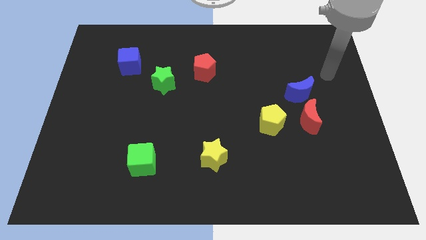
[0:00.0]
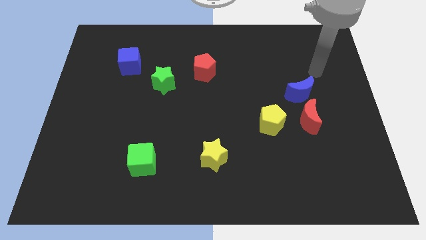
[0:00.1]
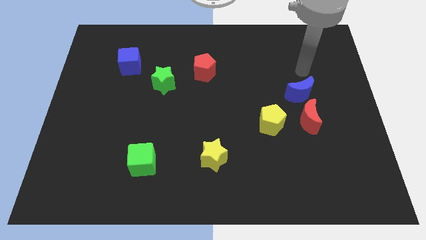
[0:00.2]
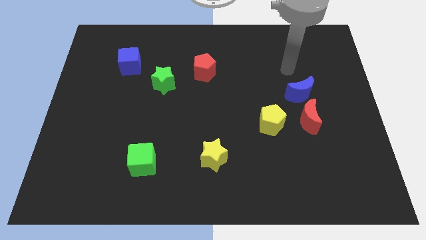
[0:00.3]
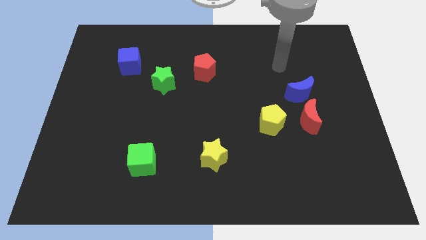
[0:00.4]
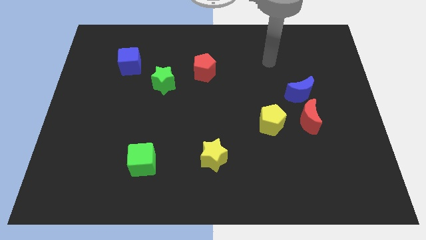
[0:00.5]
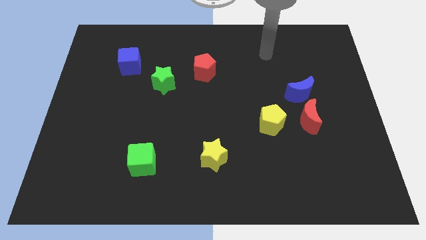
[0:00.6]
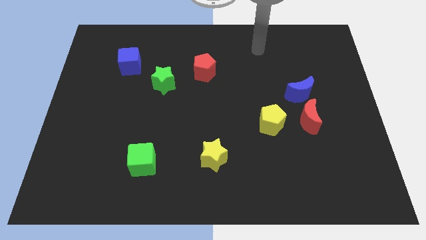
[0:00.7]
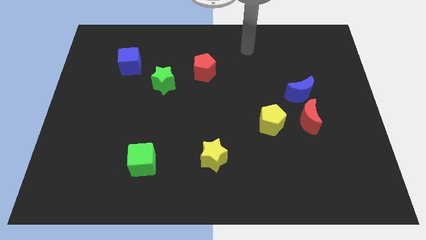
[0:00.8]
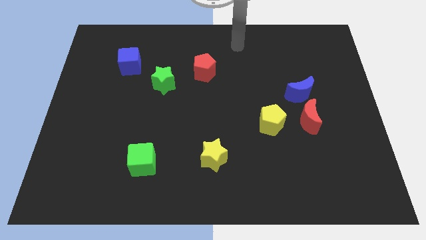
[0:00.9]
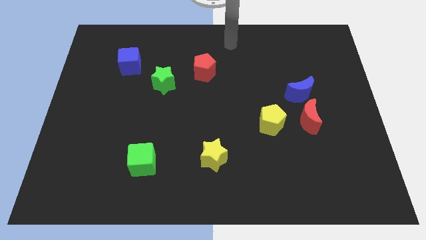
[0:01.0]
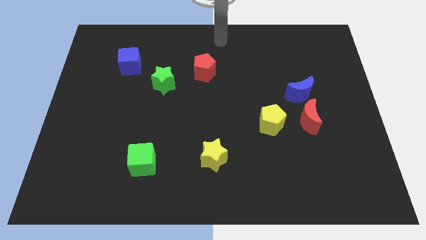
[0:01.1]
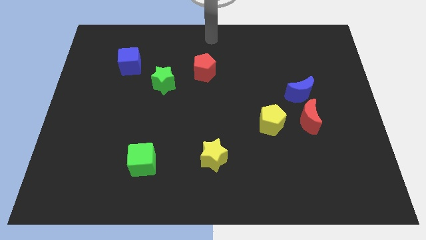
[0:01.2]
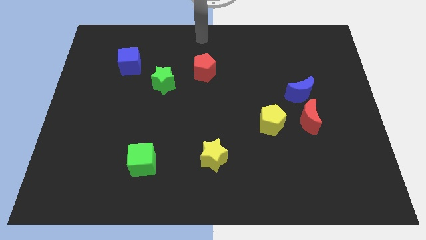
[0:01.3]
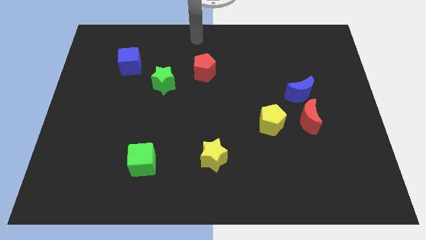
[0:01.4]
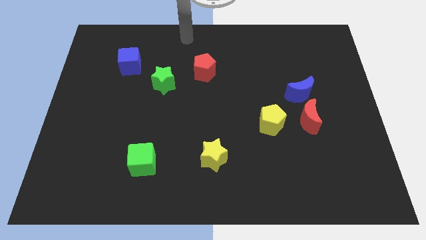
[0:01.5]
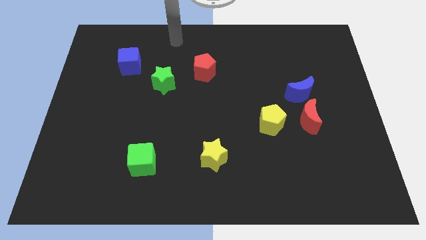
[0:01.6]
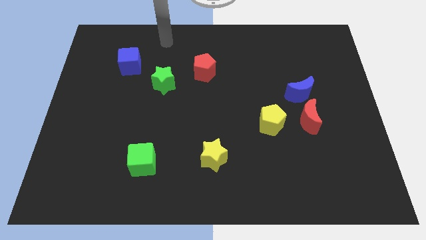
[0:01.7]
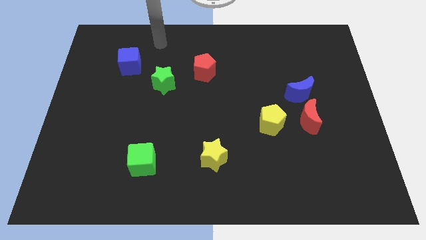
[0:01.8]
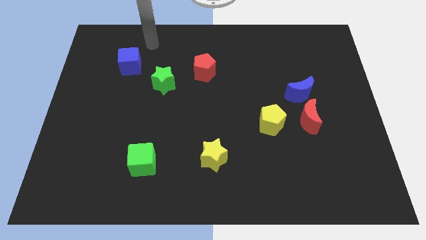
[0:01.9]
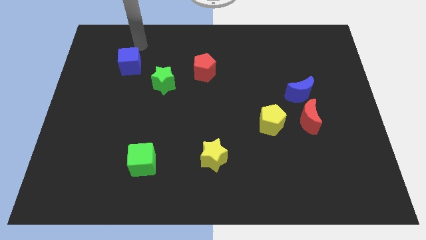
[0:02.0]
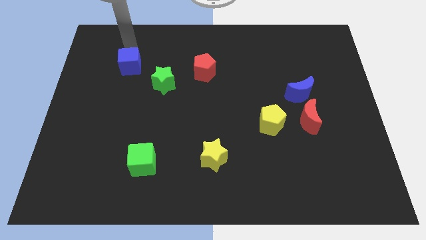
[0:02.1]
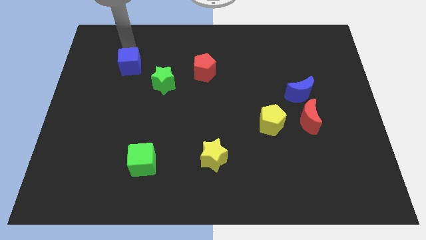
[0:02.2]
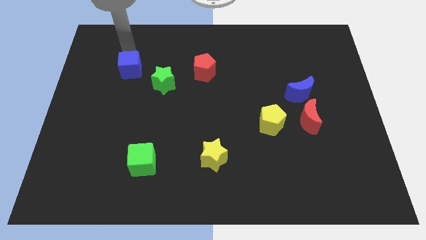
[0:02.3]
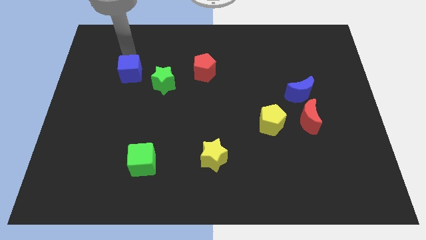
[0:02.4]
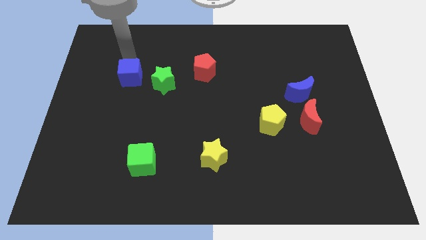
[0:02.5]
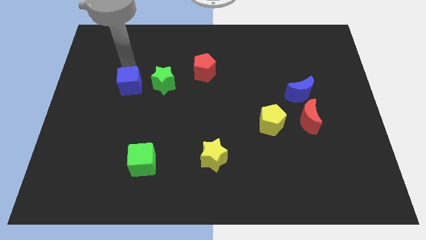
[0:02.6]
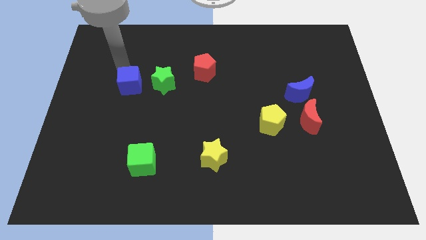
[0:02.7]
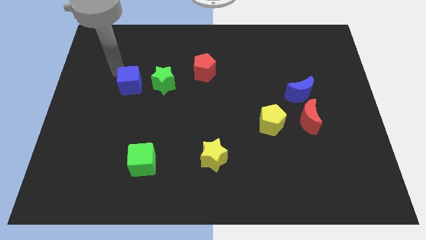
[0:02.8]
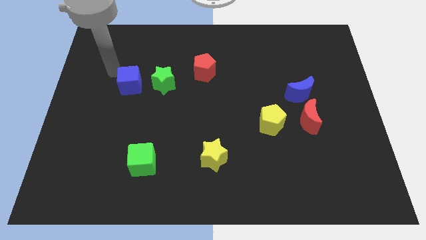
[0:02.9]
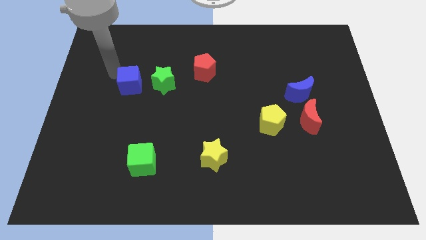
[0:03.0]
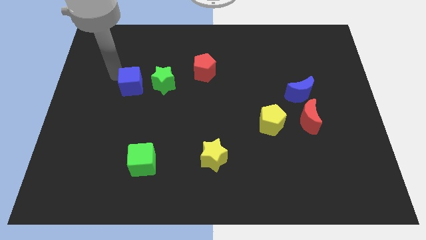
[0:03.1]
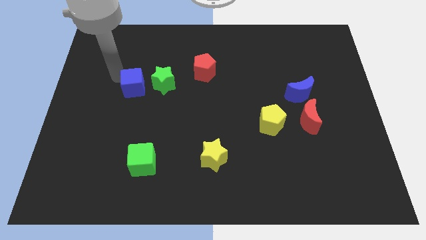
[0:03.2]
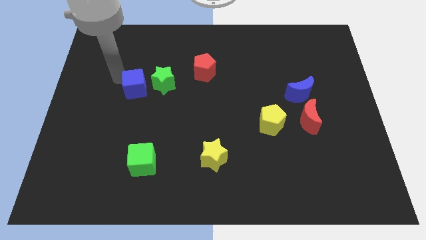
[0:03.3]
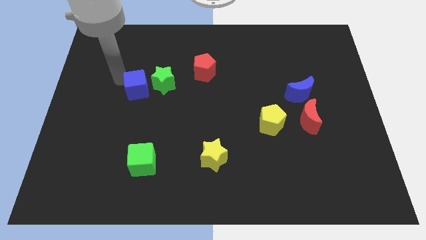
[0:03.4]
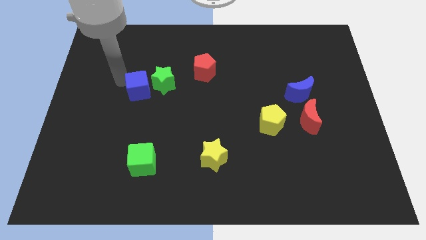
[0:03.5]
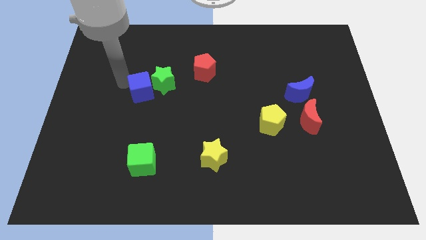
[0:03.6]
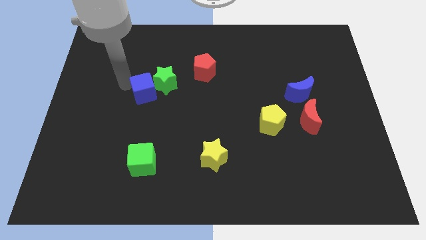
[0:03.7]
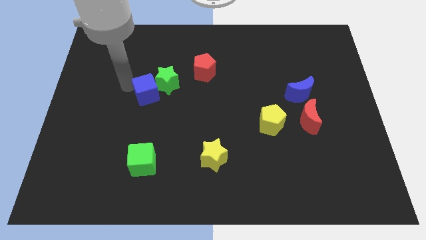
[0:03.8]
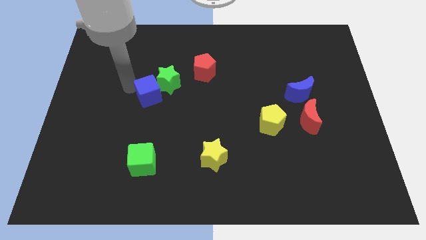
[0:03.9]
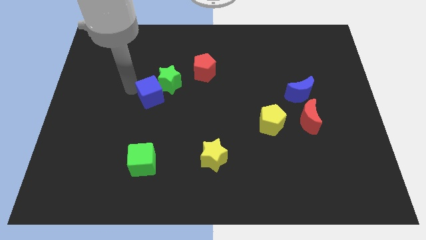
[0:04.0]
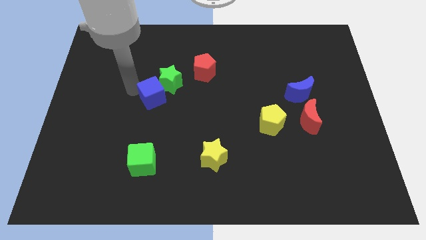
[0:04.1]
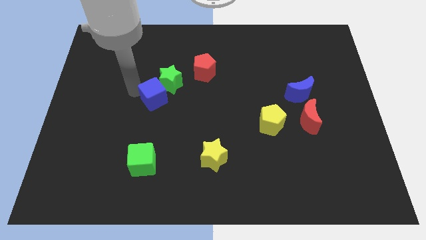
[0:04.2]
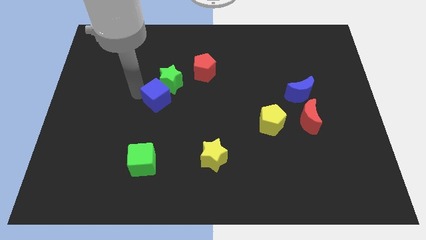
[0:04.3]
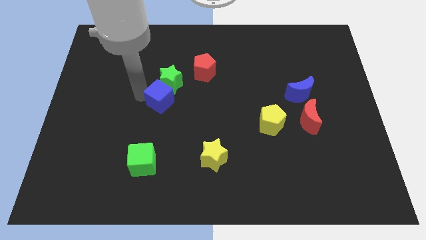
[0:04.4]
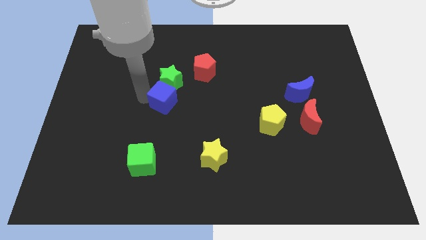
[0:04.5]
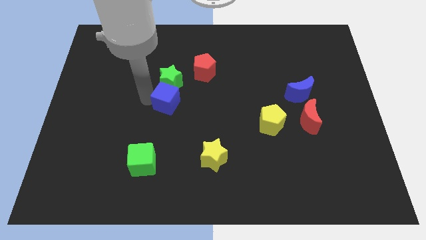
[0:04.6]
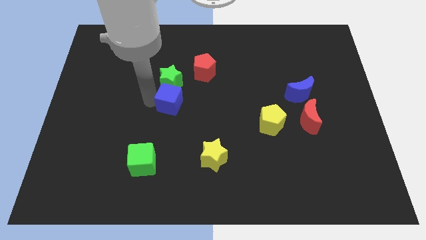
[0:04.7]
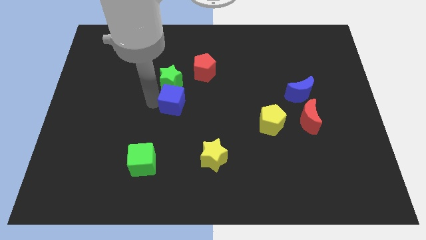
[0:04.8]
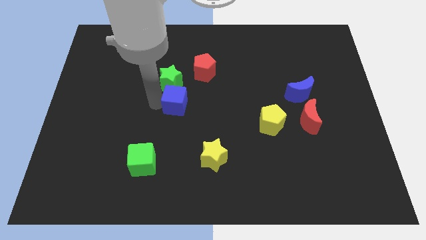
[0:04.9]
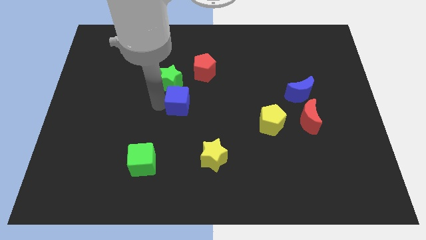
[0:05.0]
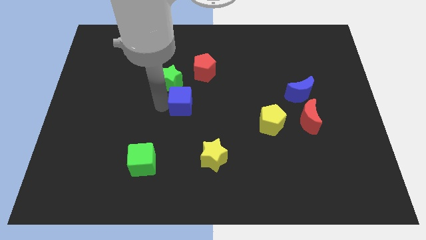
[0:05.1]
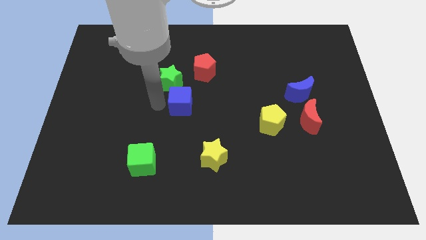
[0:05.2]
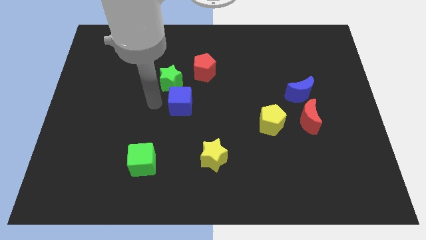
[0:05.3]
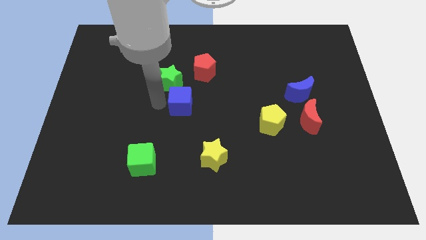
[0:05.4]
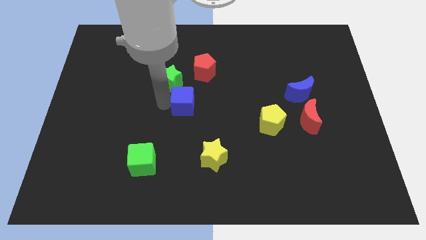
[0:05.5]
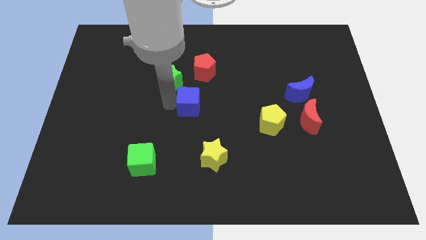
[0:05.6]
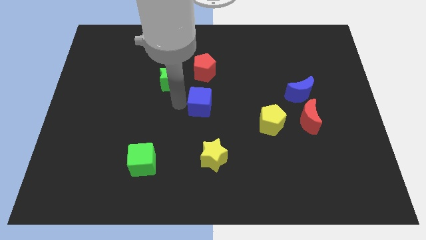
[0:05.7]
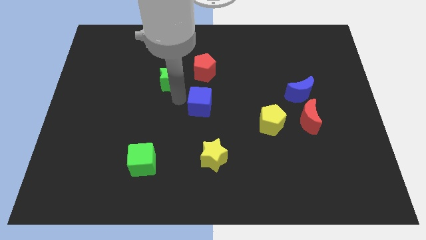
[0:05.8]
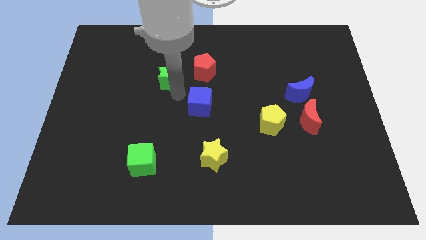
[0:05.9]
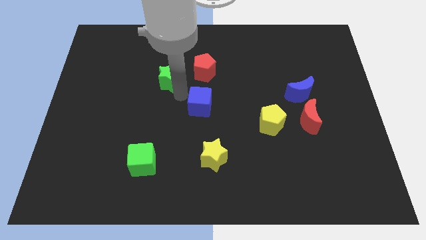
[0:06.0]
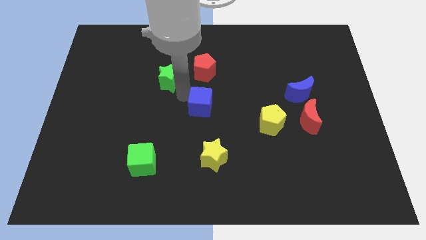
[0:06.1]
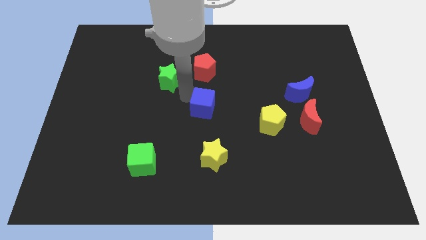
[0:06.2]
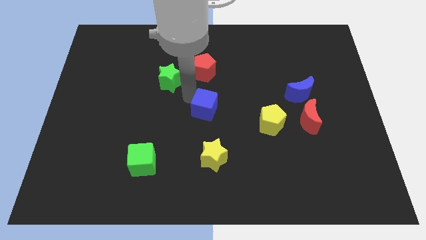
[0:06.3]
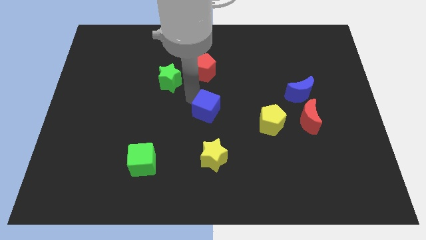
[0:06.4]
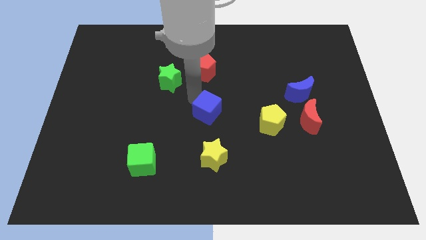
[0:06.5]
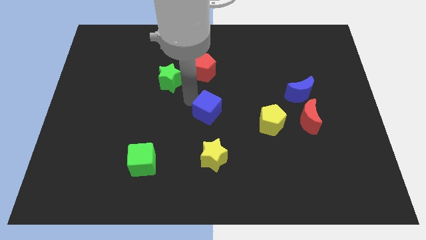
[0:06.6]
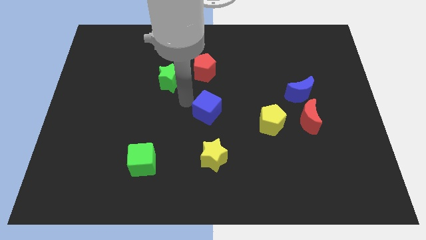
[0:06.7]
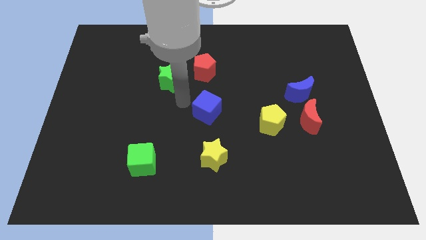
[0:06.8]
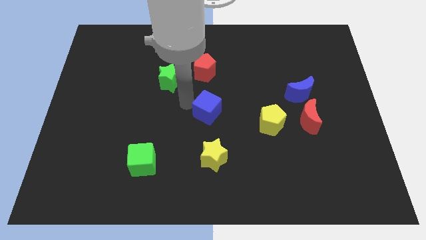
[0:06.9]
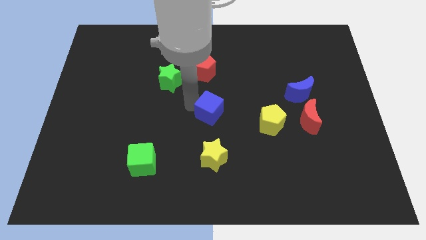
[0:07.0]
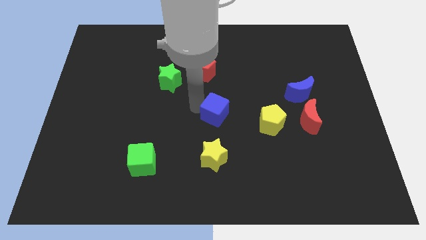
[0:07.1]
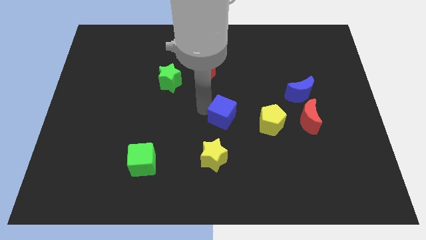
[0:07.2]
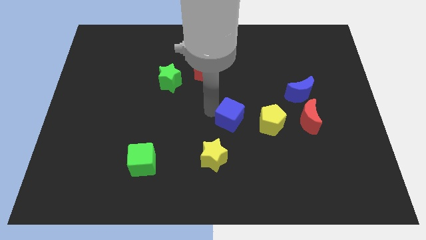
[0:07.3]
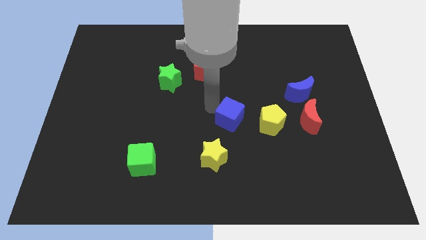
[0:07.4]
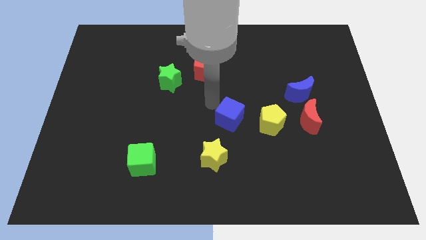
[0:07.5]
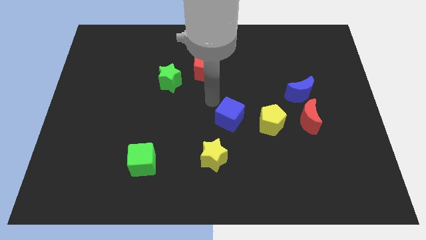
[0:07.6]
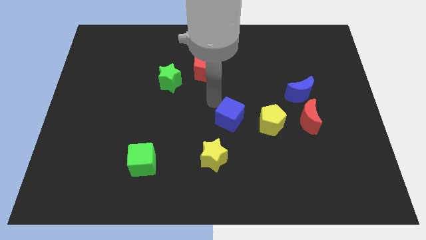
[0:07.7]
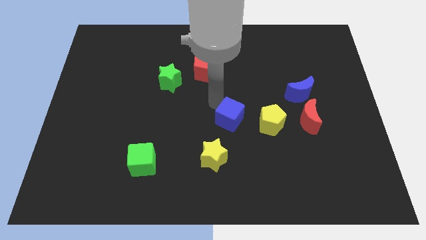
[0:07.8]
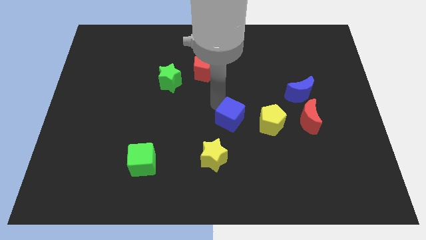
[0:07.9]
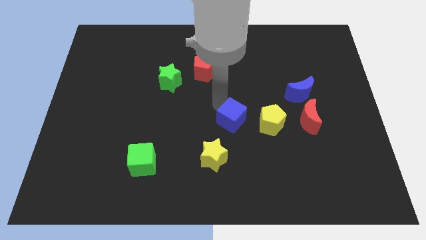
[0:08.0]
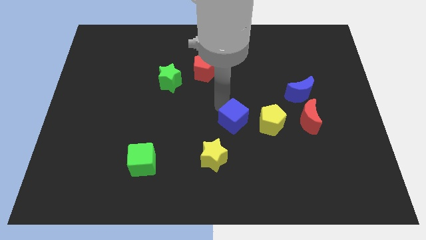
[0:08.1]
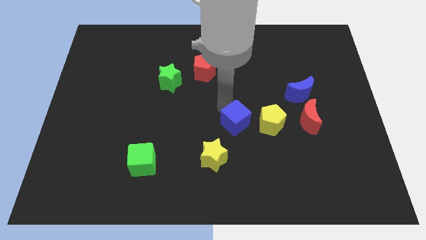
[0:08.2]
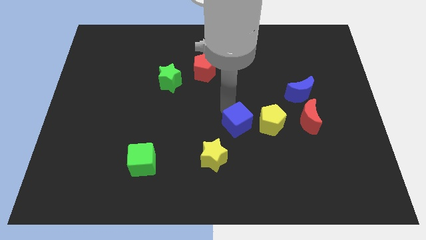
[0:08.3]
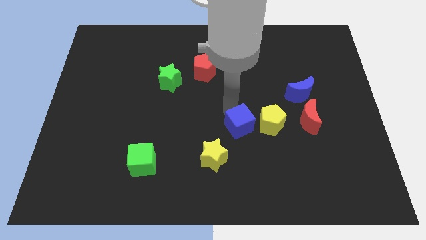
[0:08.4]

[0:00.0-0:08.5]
move the blue cube to the bottom left of the yellow pentagon
